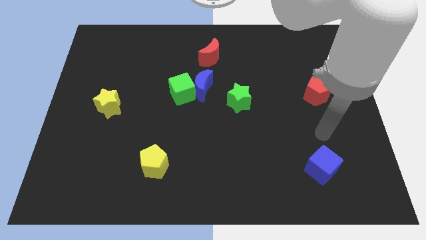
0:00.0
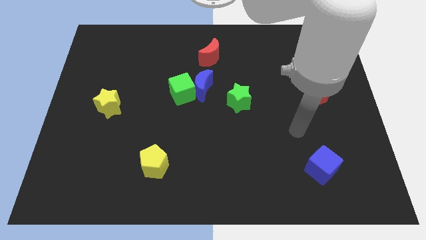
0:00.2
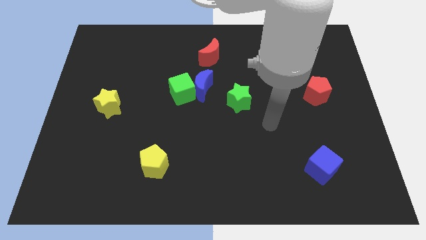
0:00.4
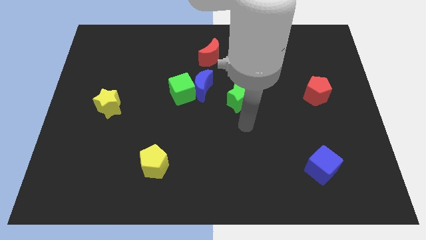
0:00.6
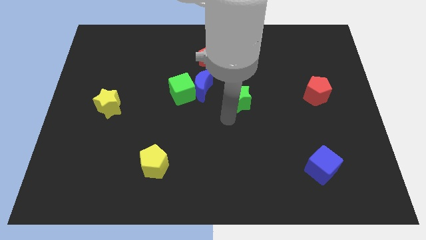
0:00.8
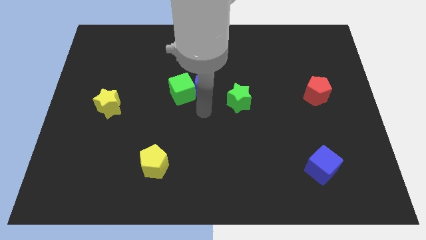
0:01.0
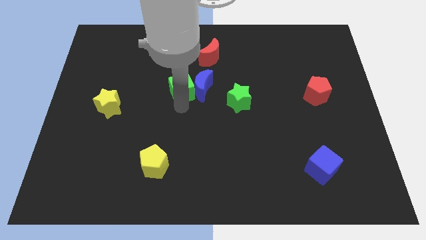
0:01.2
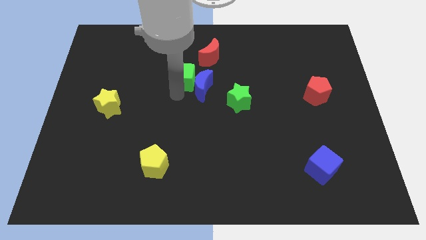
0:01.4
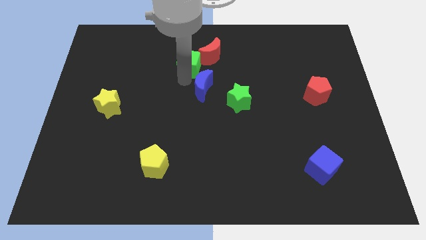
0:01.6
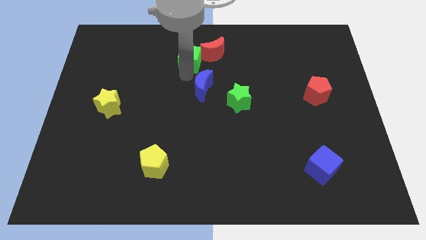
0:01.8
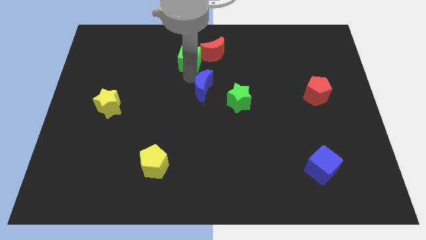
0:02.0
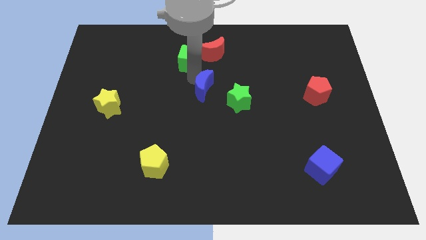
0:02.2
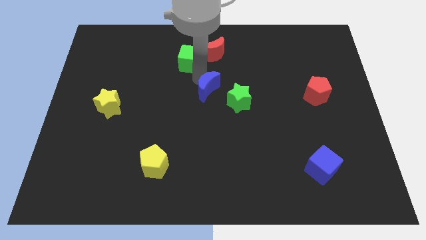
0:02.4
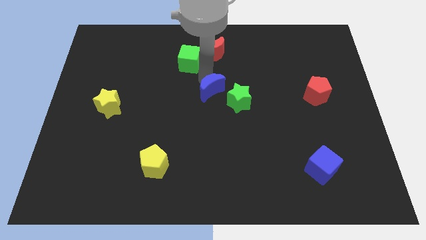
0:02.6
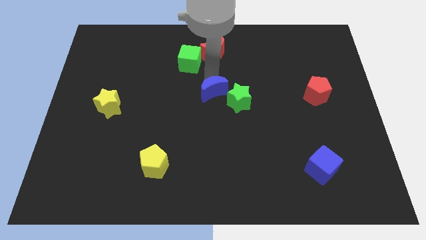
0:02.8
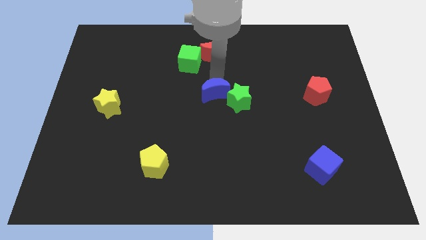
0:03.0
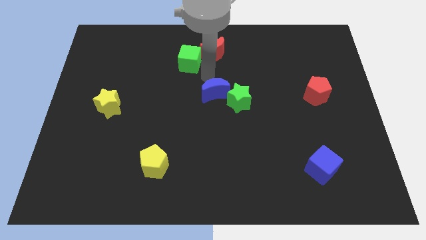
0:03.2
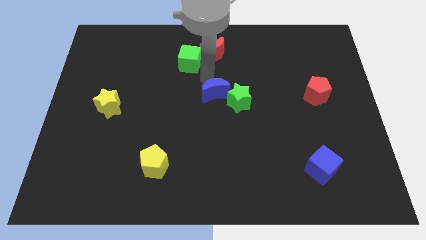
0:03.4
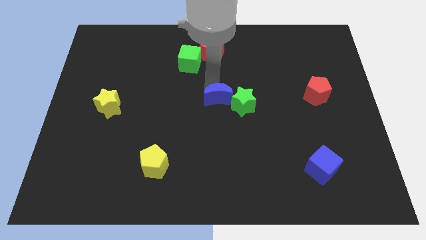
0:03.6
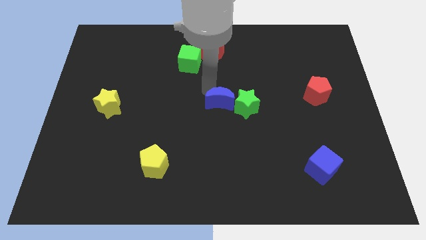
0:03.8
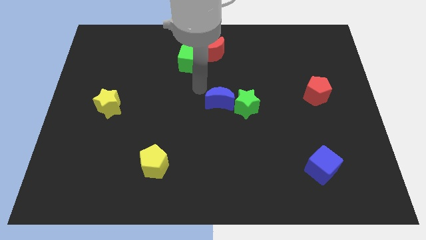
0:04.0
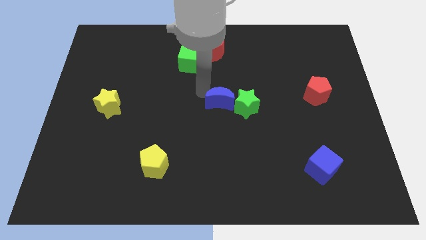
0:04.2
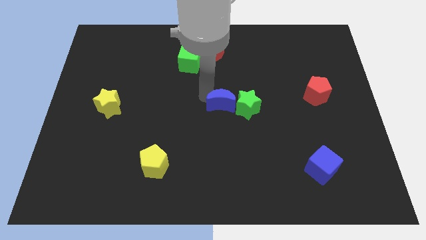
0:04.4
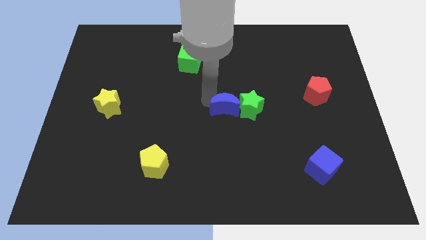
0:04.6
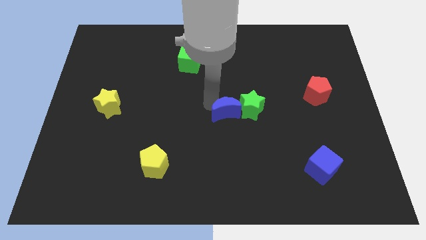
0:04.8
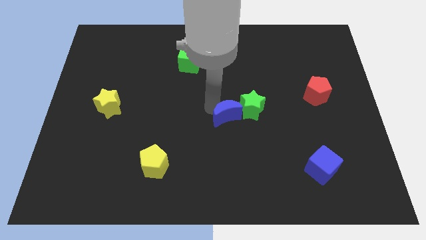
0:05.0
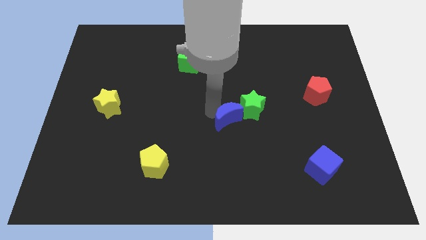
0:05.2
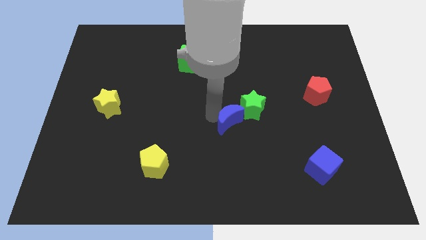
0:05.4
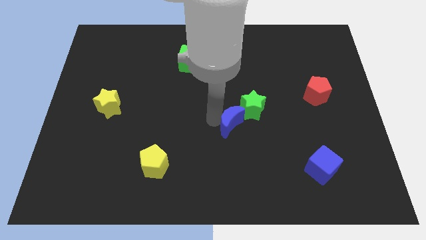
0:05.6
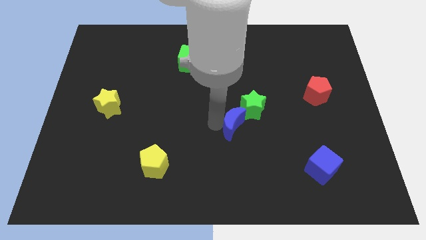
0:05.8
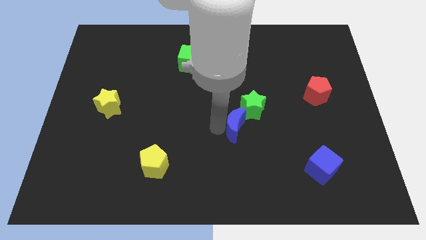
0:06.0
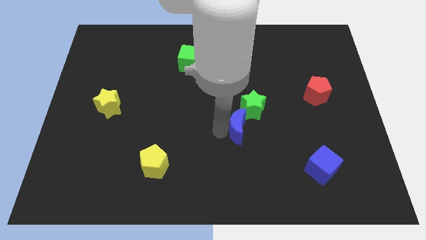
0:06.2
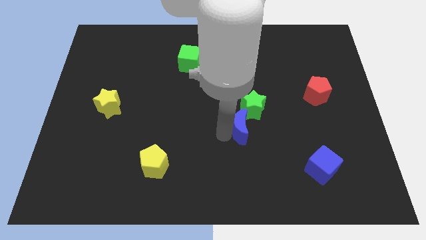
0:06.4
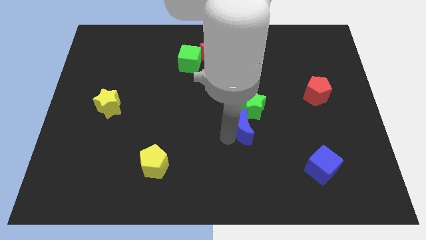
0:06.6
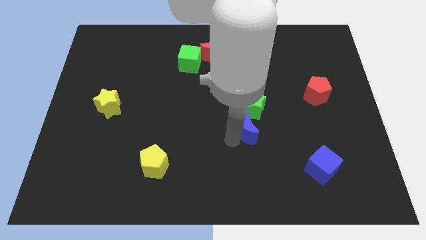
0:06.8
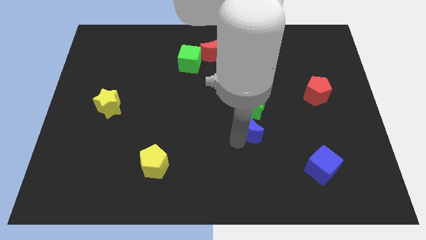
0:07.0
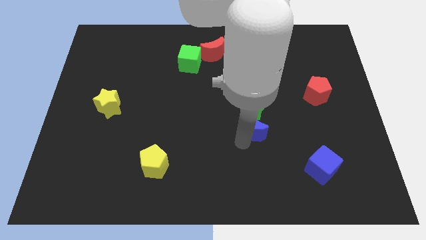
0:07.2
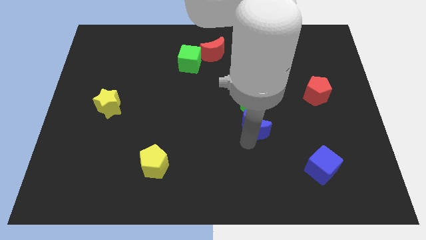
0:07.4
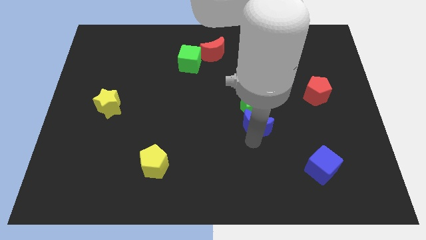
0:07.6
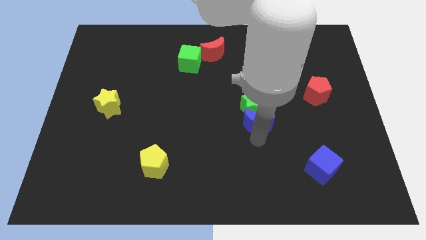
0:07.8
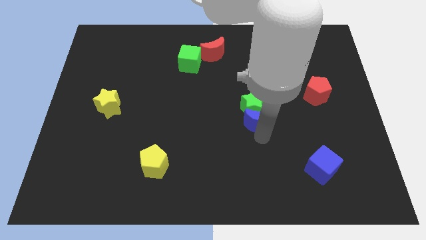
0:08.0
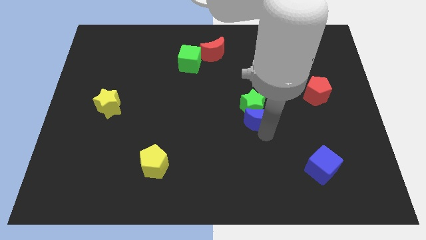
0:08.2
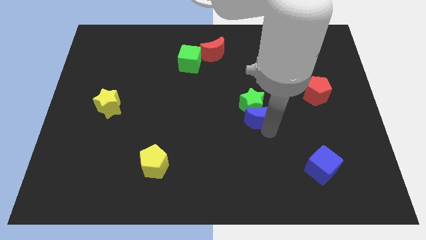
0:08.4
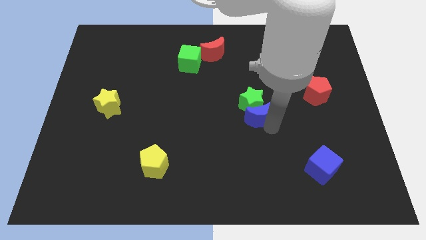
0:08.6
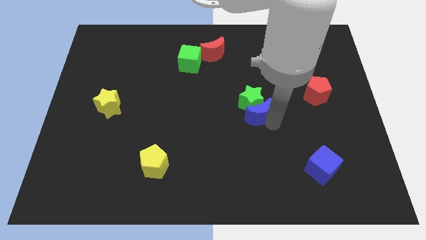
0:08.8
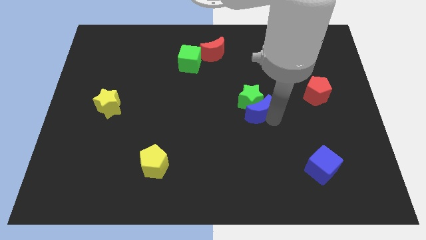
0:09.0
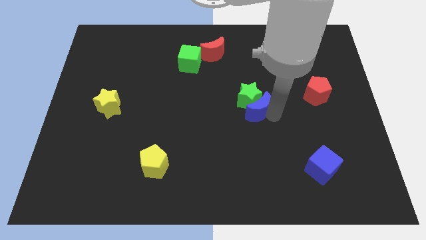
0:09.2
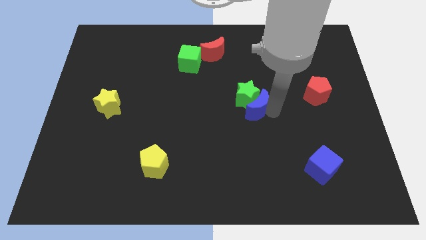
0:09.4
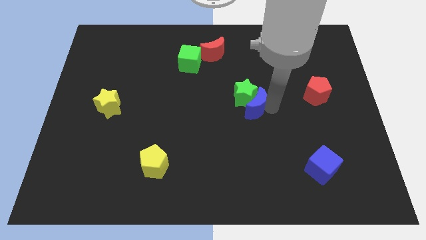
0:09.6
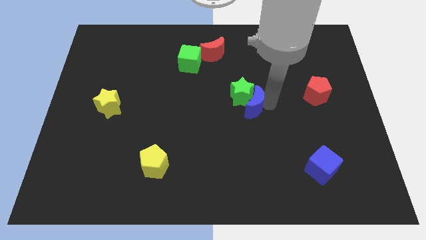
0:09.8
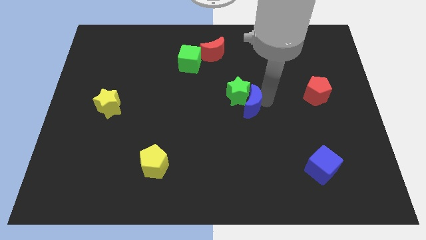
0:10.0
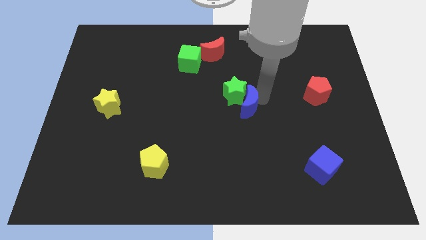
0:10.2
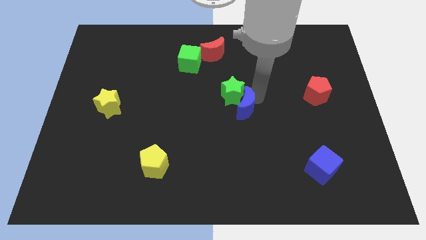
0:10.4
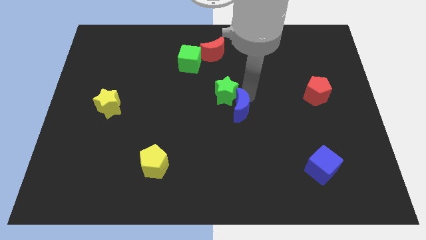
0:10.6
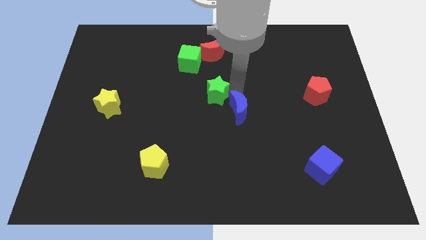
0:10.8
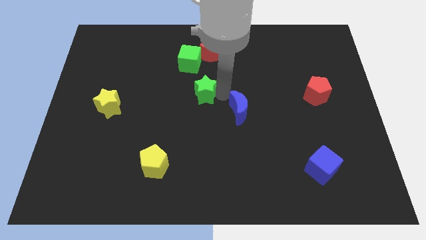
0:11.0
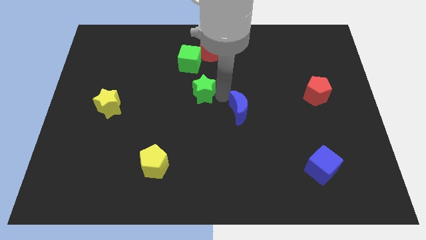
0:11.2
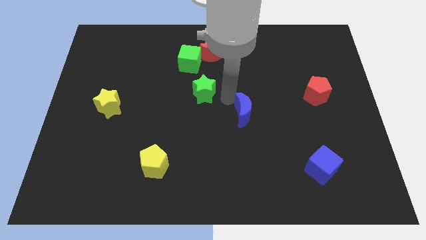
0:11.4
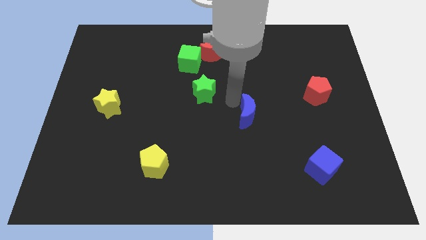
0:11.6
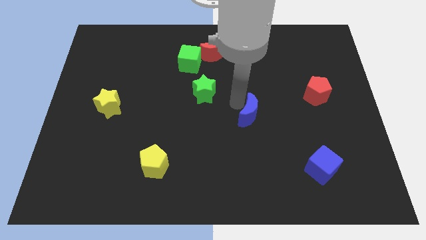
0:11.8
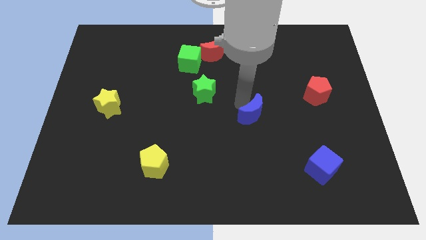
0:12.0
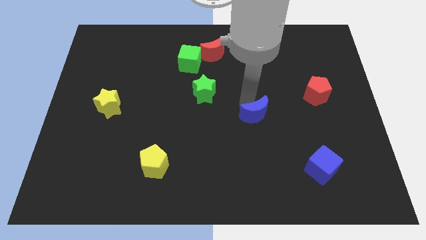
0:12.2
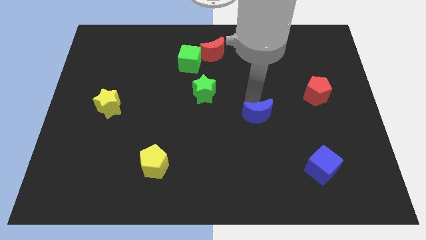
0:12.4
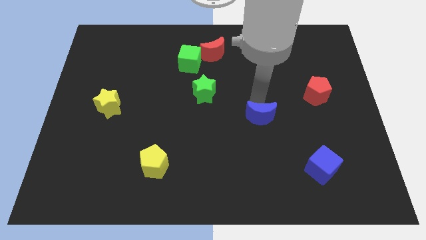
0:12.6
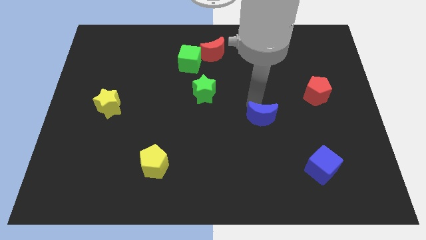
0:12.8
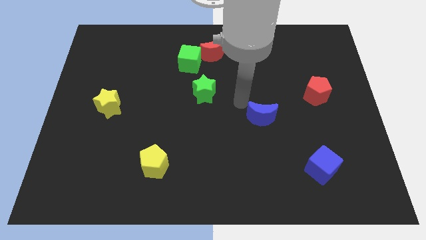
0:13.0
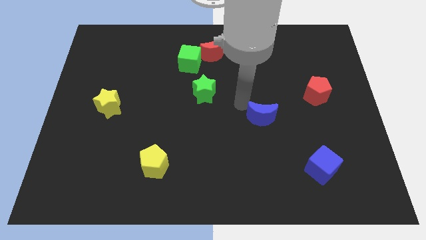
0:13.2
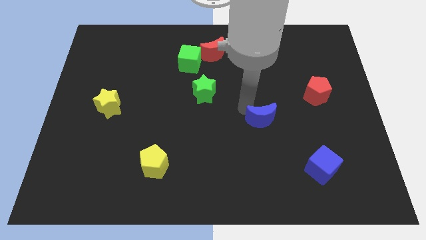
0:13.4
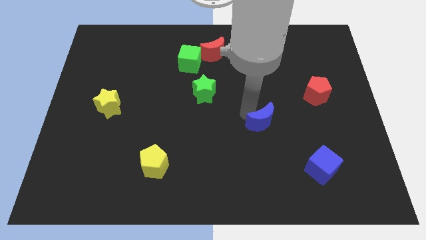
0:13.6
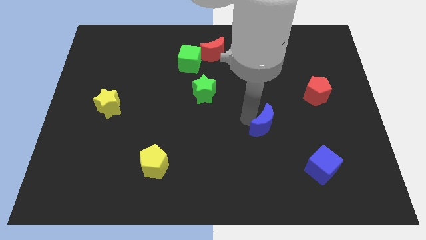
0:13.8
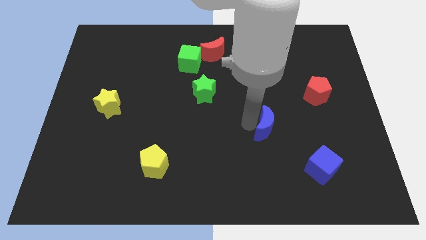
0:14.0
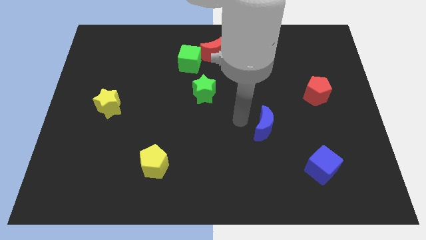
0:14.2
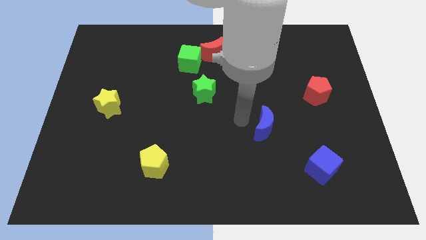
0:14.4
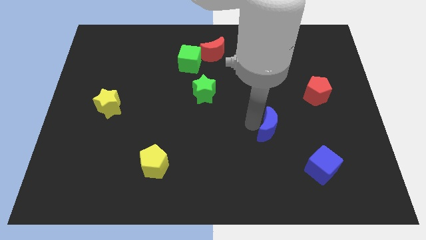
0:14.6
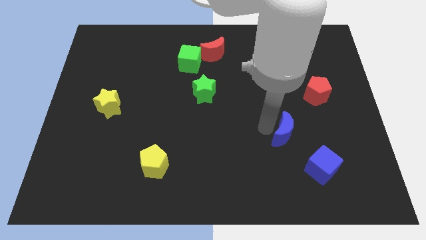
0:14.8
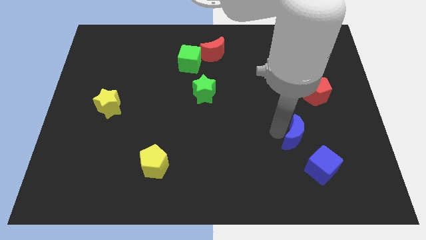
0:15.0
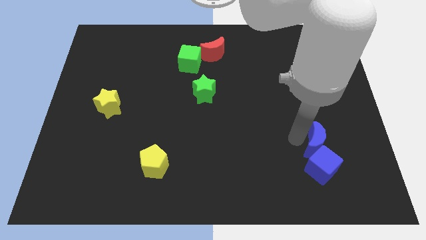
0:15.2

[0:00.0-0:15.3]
move the blue moon diagonally up and to the right of the blue cube
